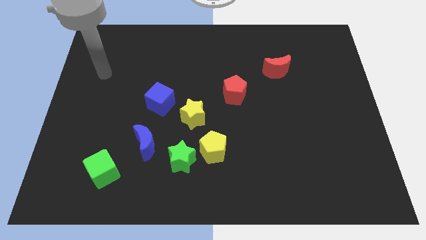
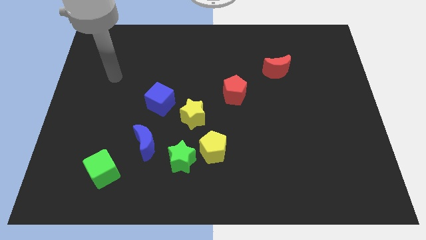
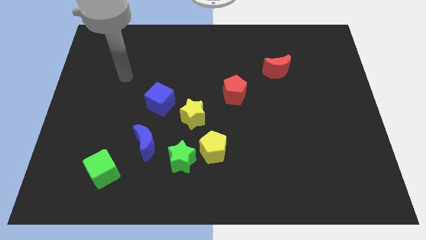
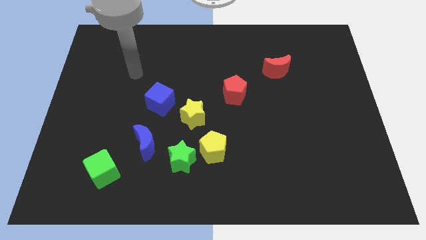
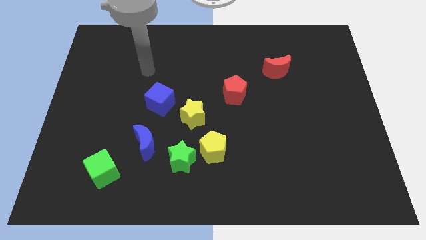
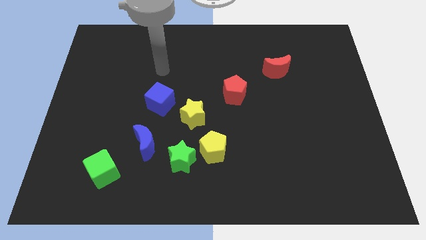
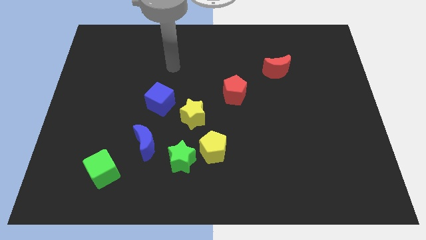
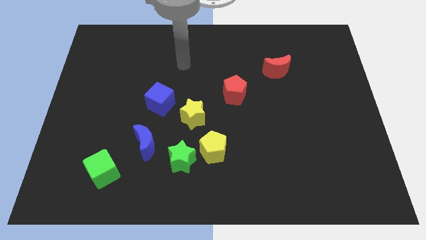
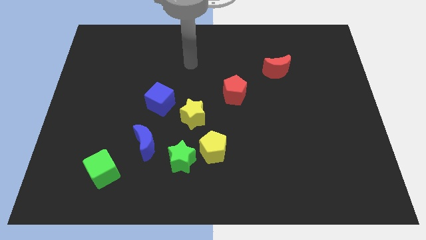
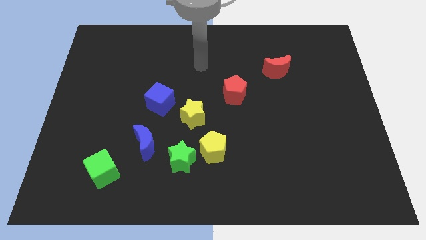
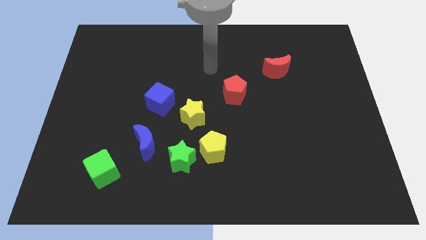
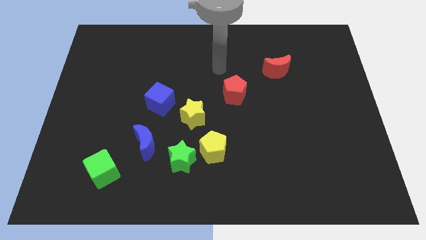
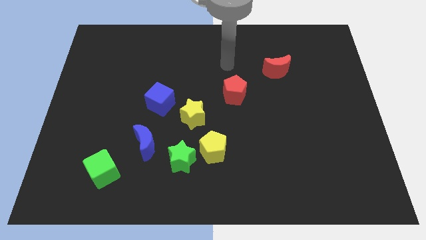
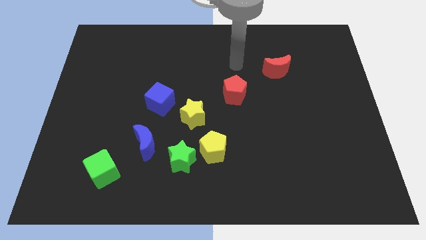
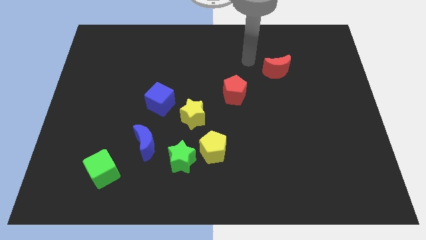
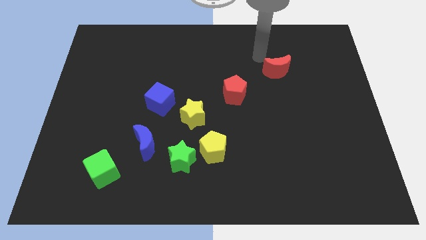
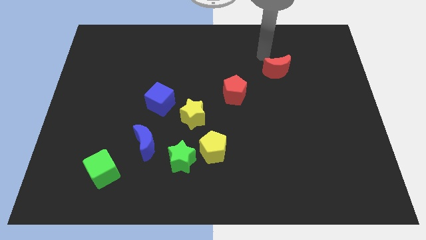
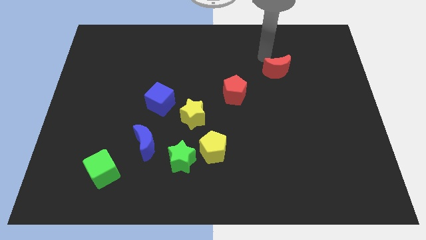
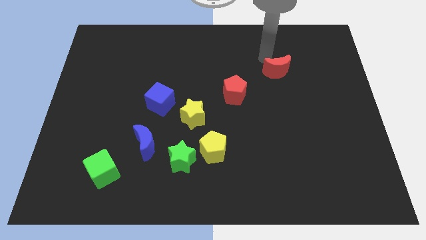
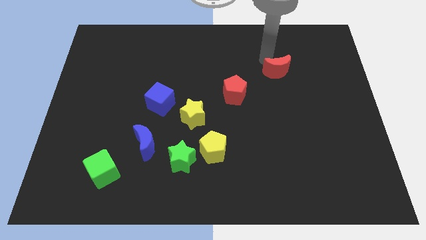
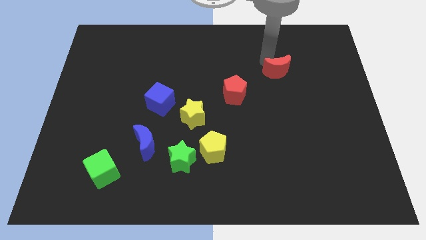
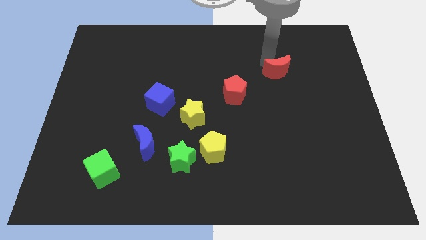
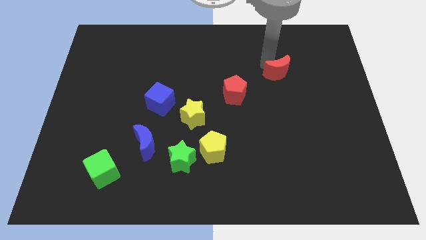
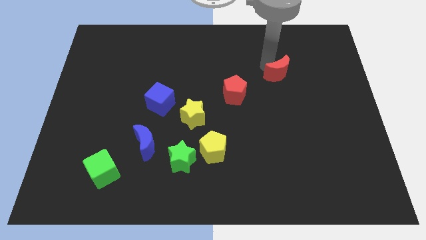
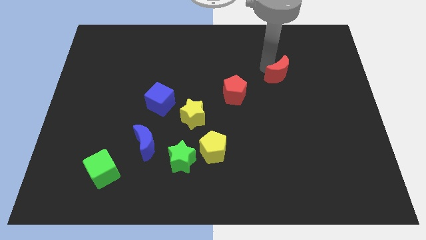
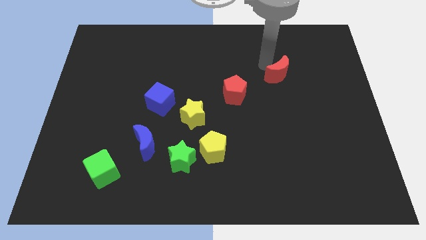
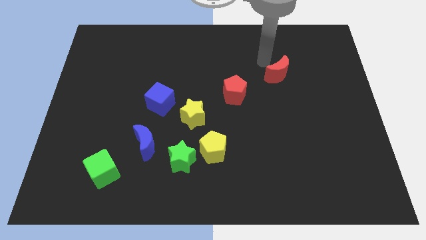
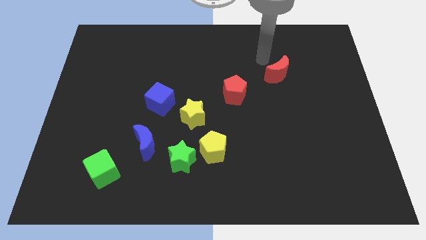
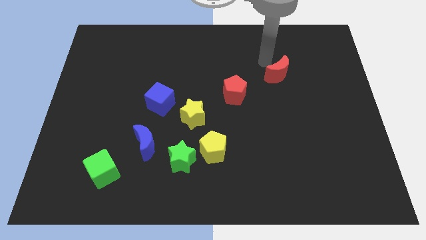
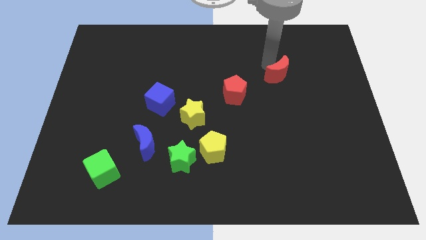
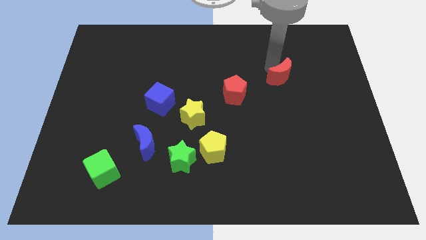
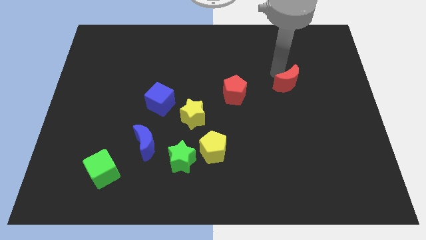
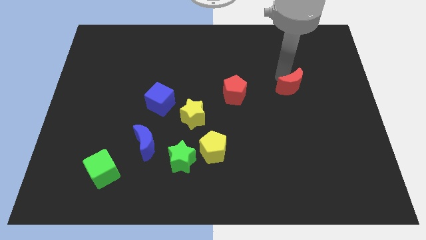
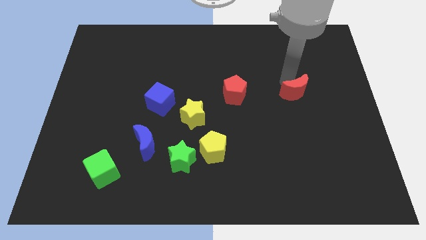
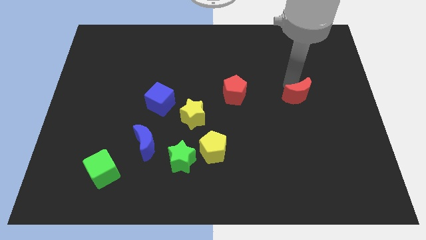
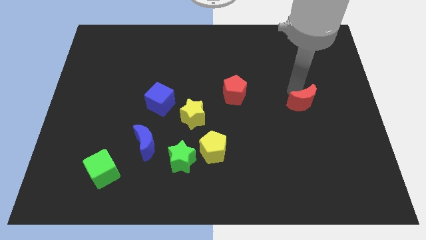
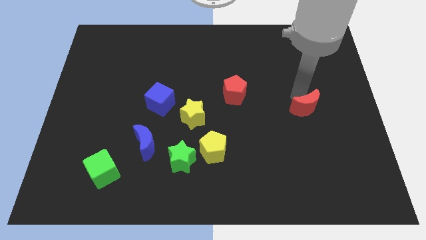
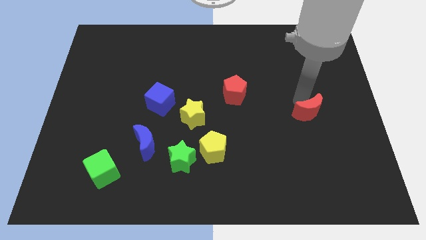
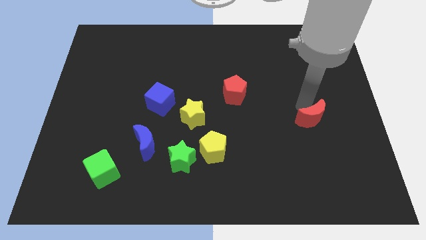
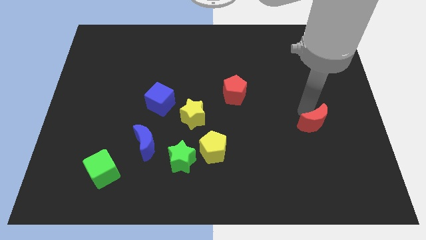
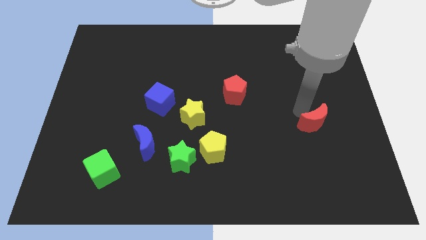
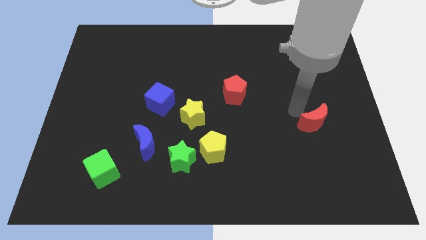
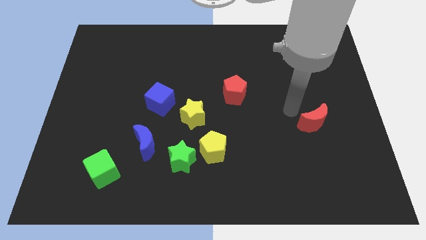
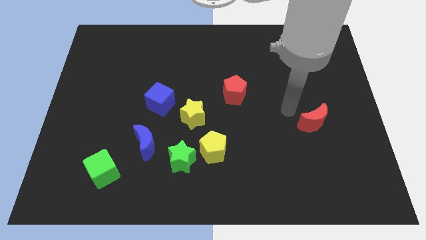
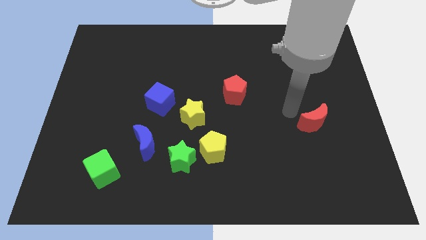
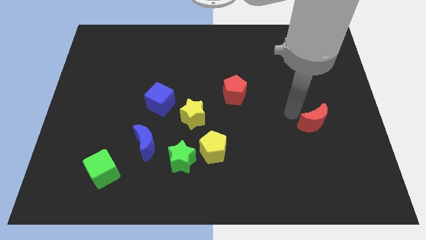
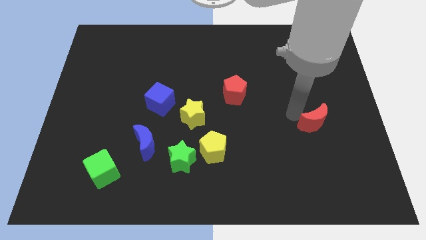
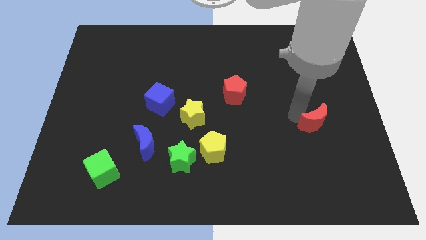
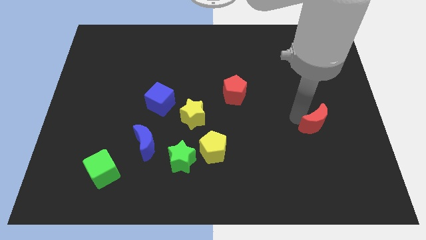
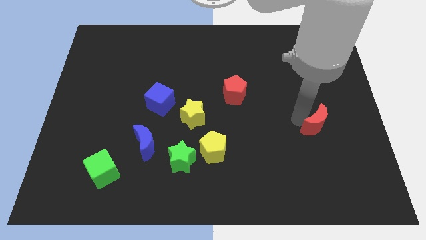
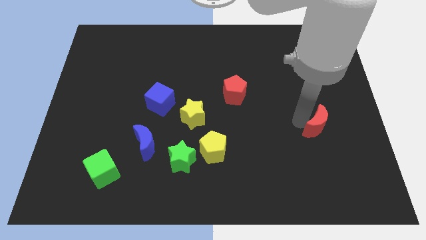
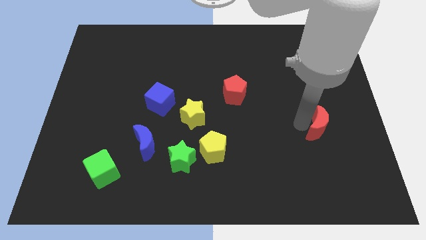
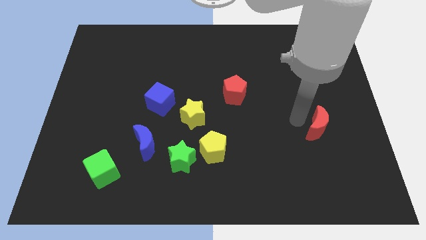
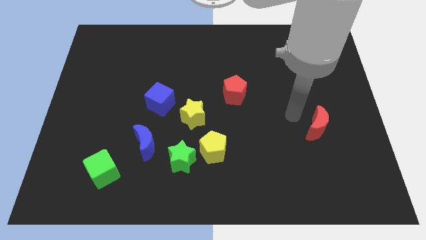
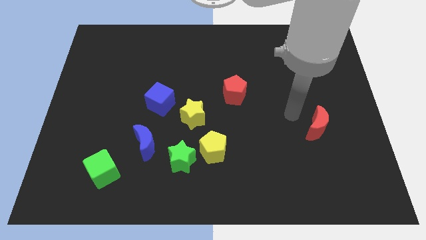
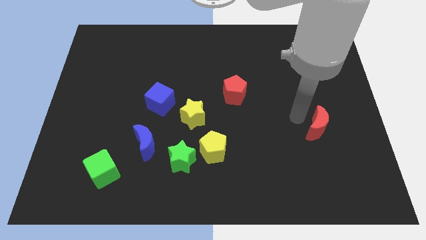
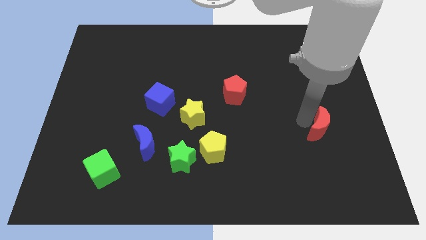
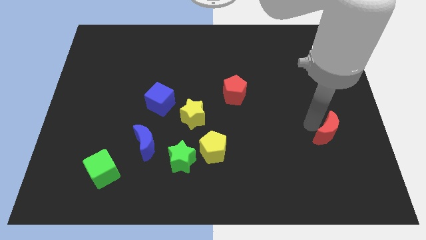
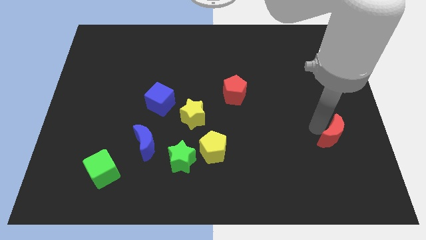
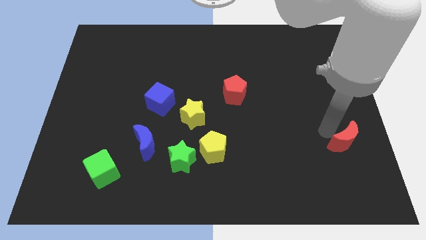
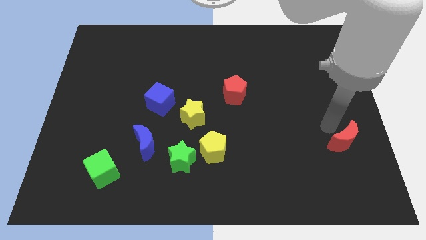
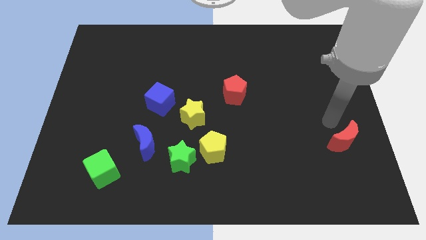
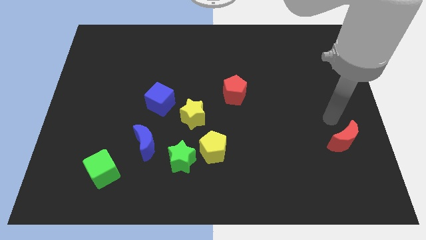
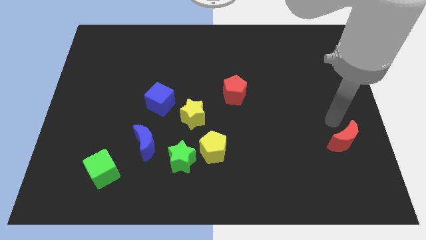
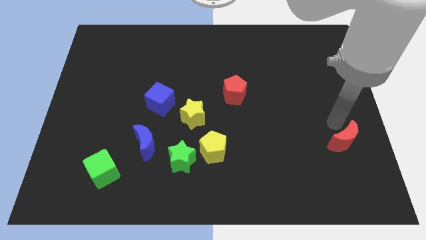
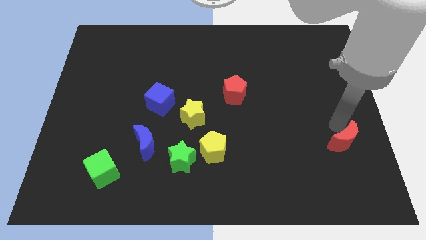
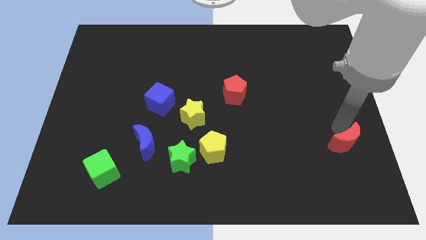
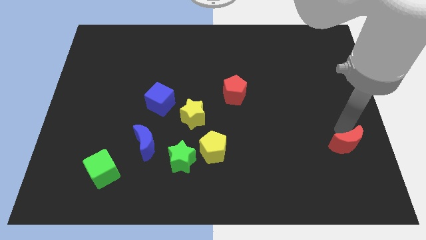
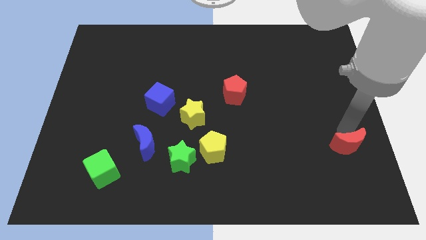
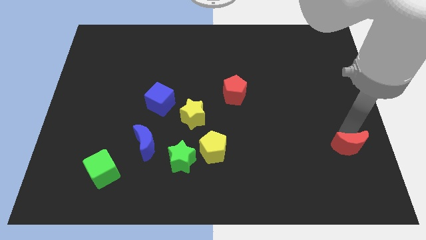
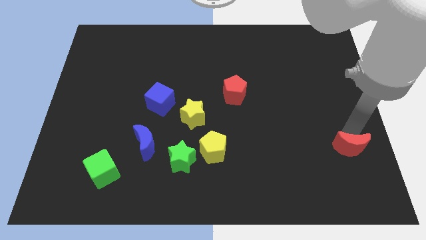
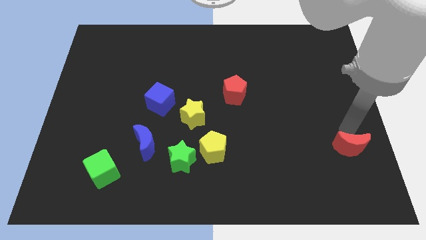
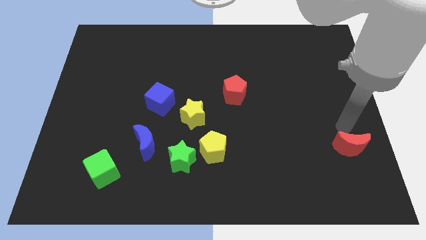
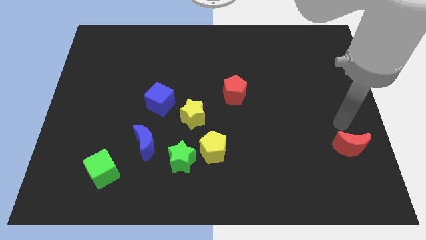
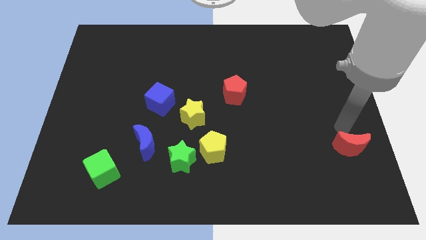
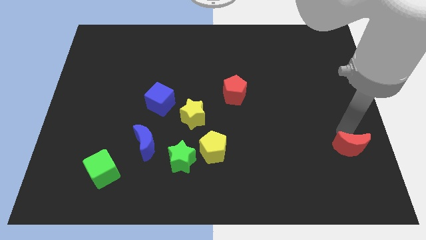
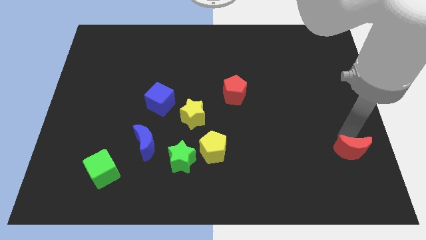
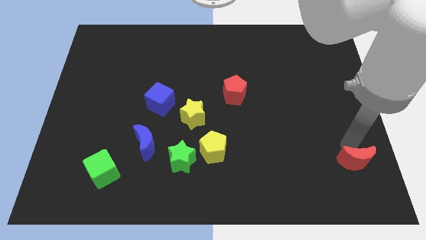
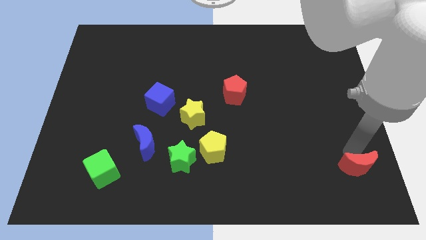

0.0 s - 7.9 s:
slide the red moon to the bottom right corner
